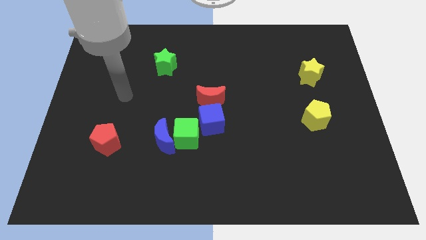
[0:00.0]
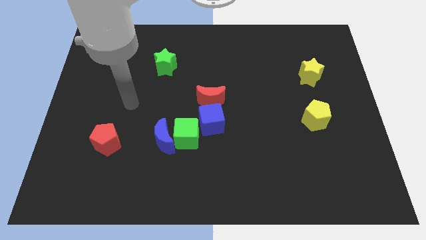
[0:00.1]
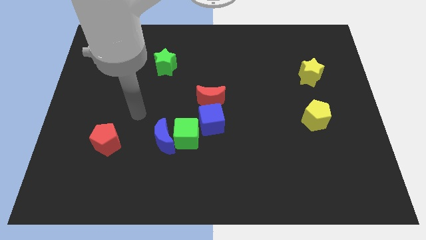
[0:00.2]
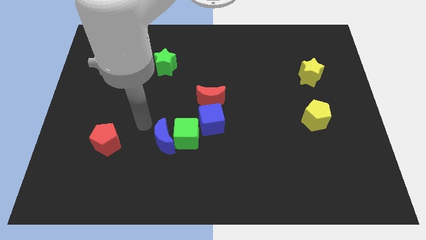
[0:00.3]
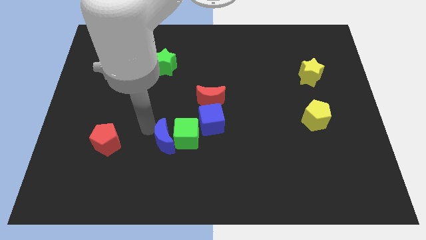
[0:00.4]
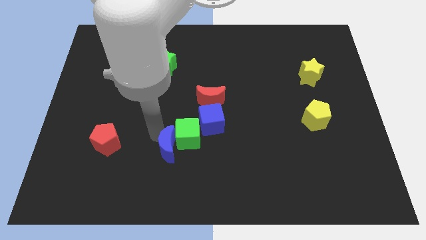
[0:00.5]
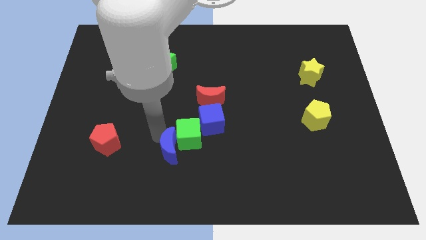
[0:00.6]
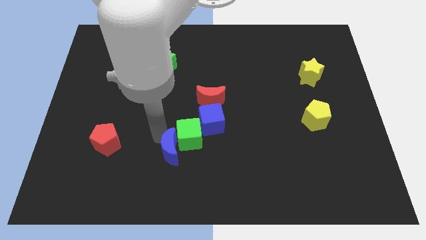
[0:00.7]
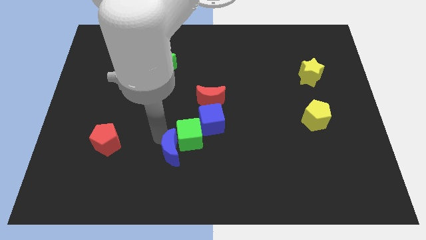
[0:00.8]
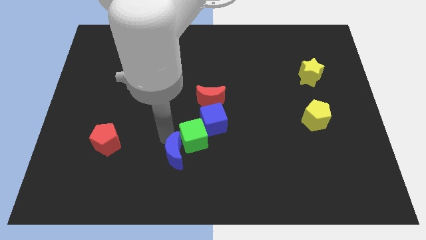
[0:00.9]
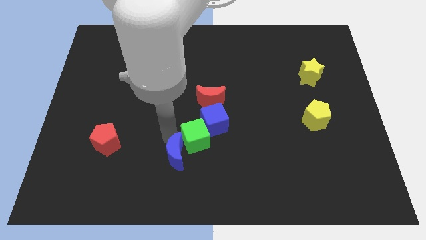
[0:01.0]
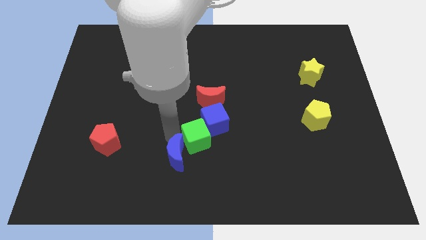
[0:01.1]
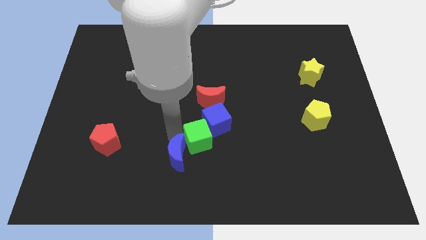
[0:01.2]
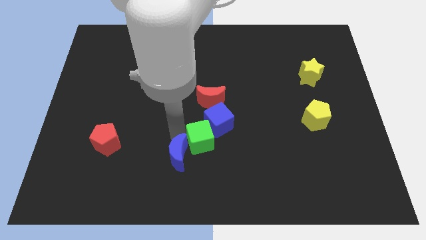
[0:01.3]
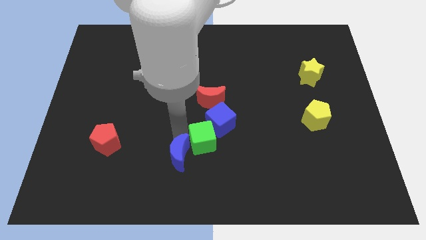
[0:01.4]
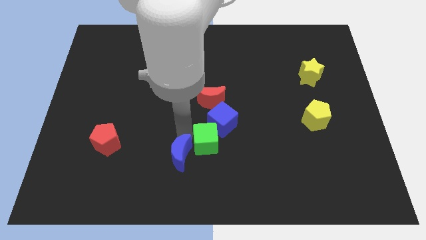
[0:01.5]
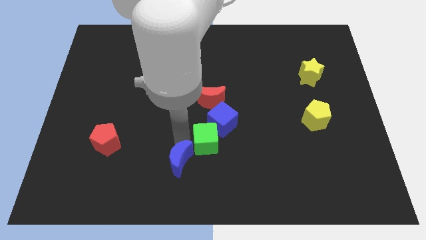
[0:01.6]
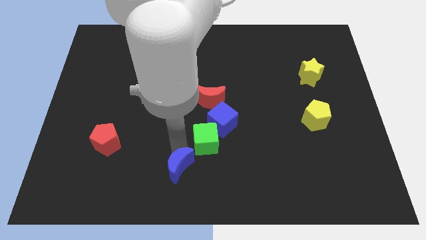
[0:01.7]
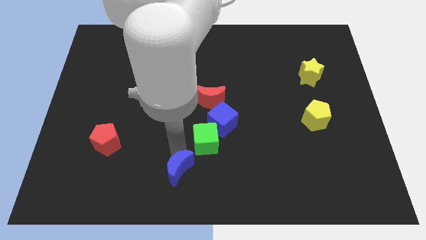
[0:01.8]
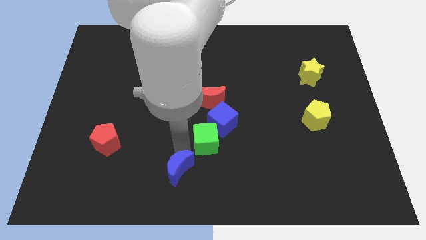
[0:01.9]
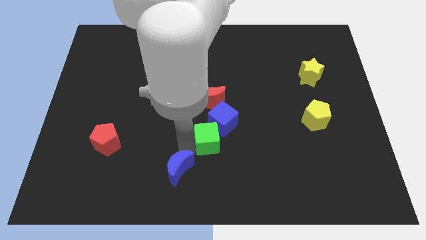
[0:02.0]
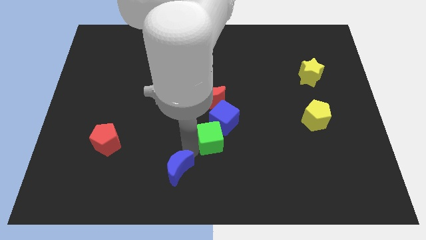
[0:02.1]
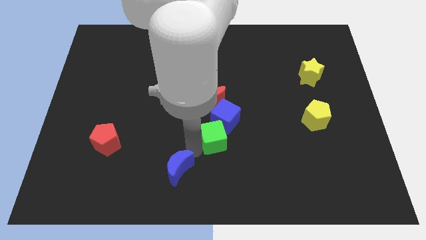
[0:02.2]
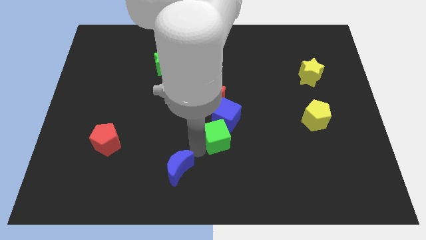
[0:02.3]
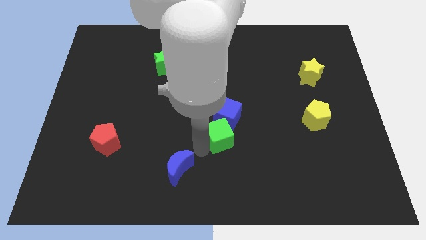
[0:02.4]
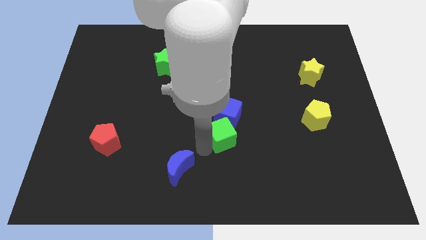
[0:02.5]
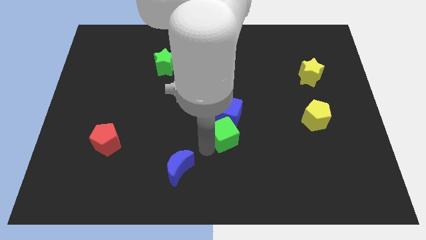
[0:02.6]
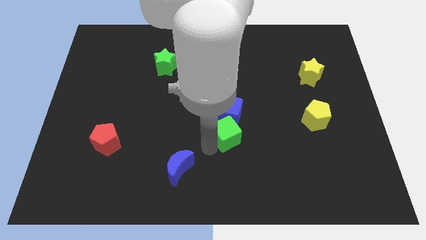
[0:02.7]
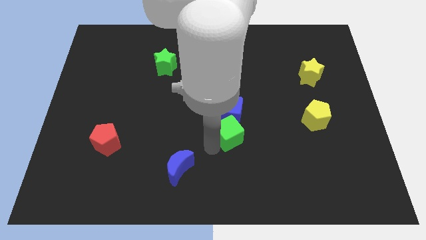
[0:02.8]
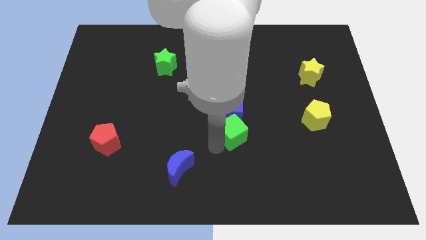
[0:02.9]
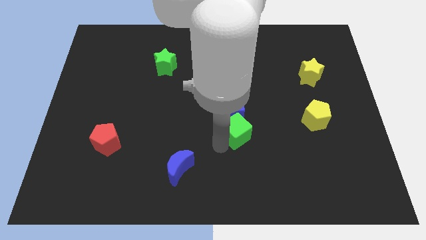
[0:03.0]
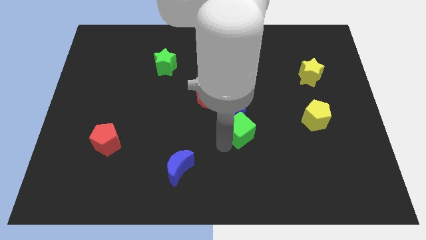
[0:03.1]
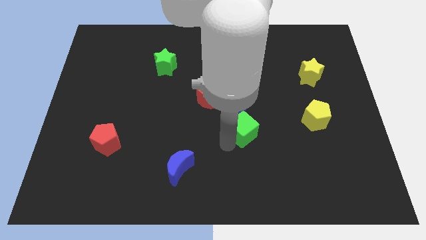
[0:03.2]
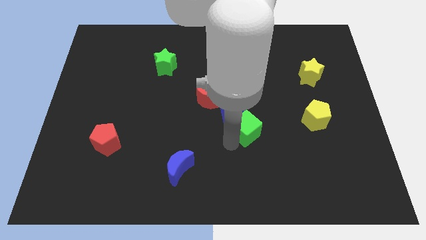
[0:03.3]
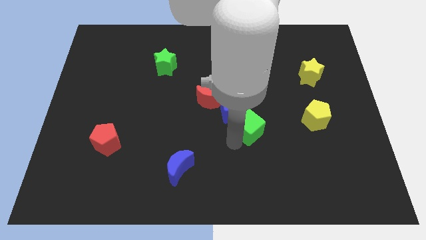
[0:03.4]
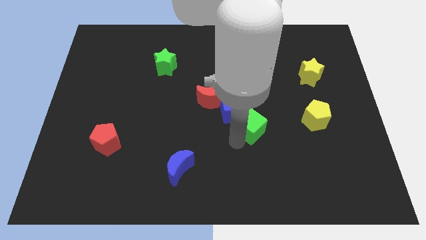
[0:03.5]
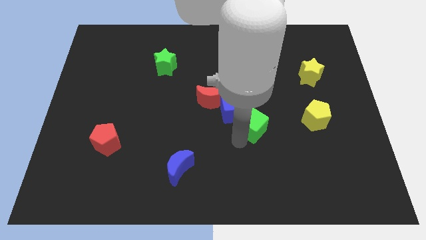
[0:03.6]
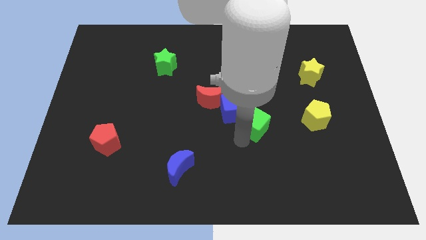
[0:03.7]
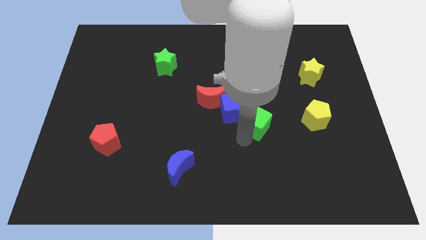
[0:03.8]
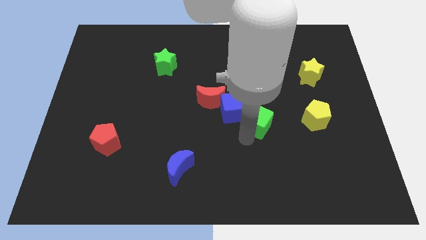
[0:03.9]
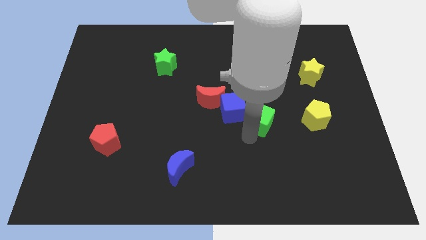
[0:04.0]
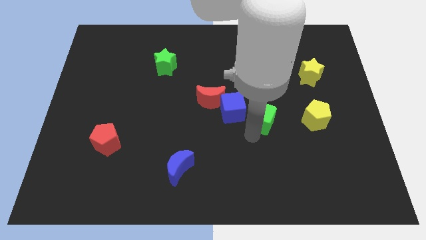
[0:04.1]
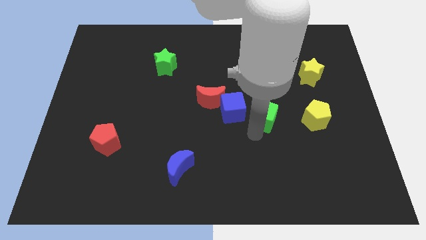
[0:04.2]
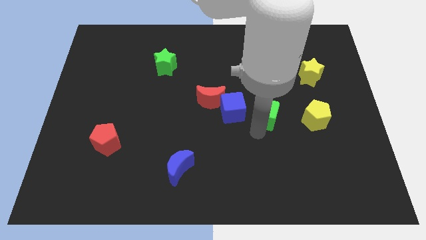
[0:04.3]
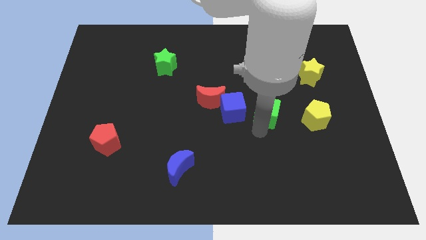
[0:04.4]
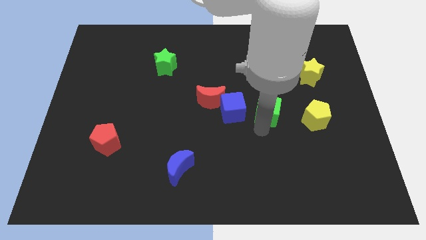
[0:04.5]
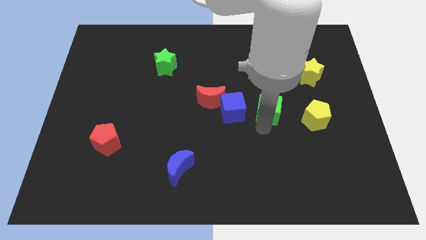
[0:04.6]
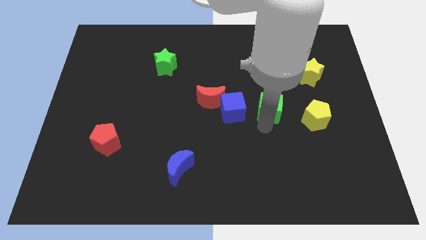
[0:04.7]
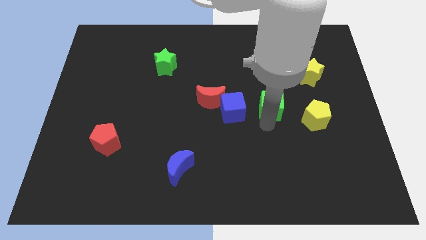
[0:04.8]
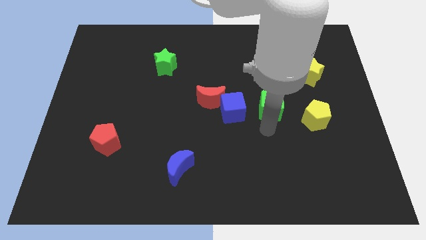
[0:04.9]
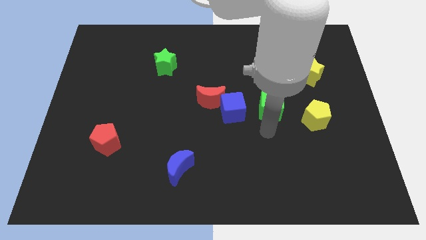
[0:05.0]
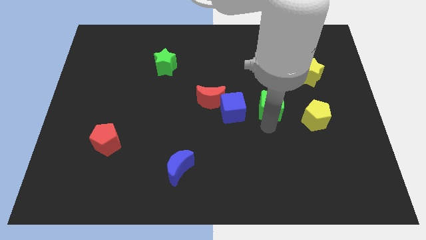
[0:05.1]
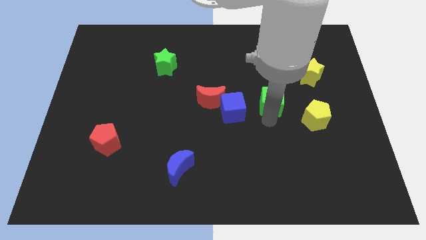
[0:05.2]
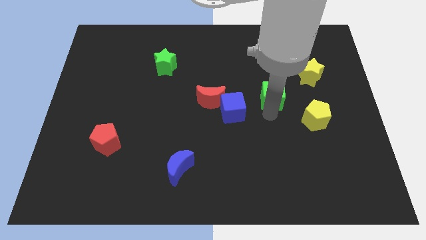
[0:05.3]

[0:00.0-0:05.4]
move the green cube up and to the right

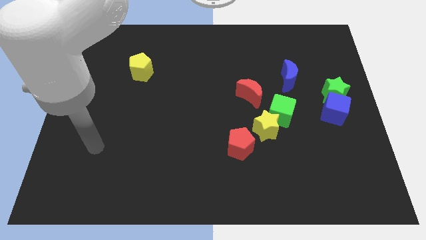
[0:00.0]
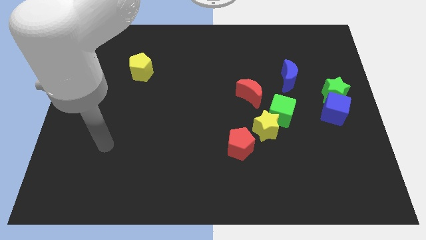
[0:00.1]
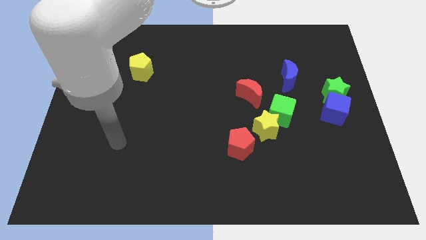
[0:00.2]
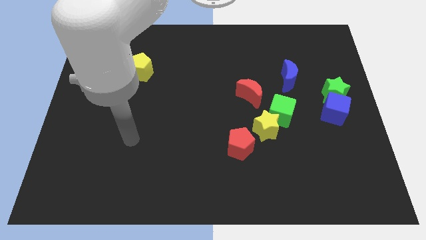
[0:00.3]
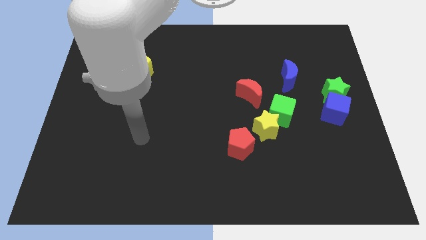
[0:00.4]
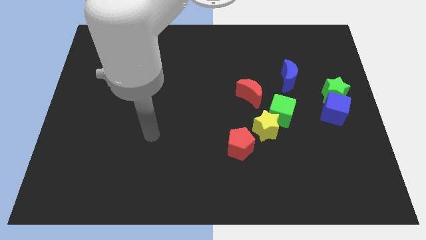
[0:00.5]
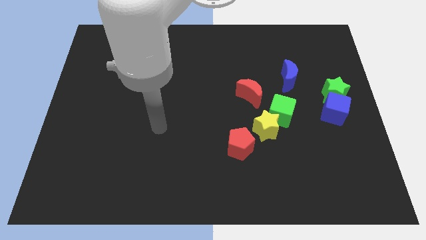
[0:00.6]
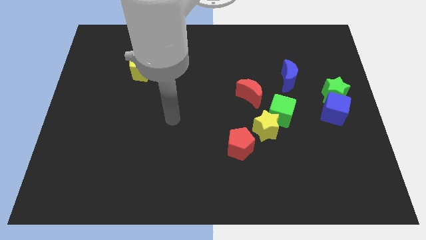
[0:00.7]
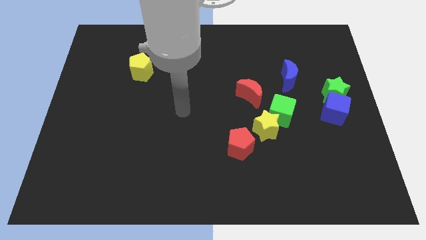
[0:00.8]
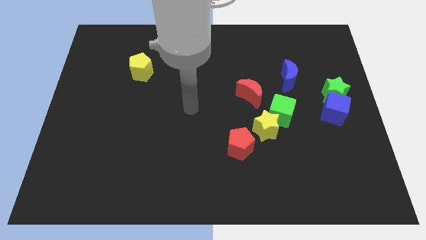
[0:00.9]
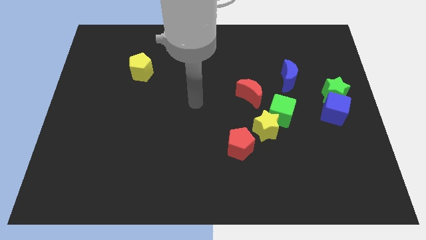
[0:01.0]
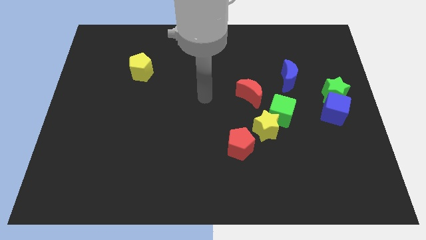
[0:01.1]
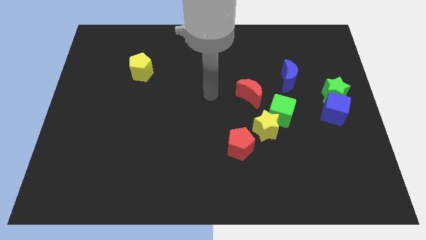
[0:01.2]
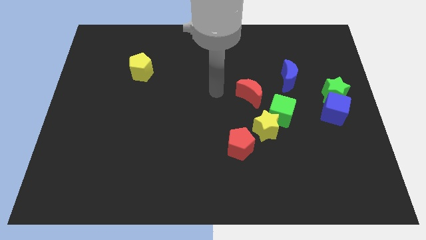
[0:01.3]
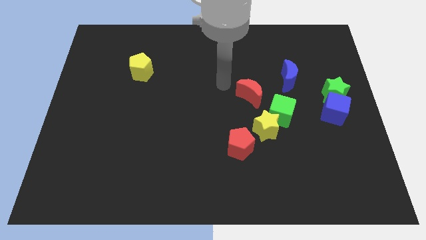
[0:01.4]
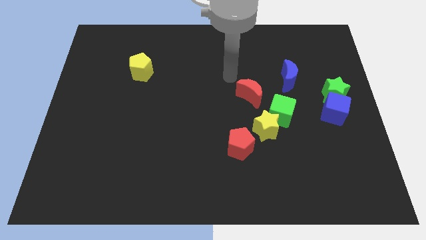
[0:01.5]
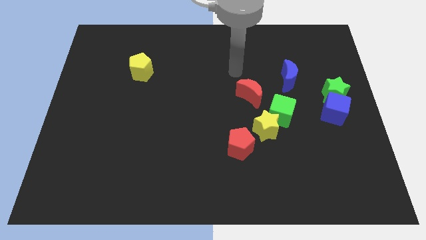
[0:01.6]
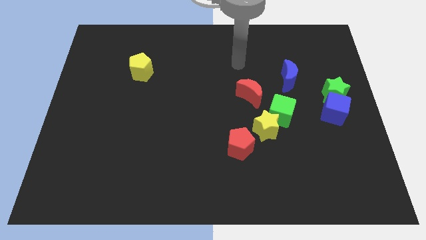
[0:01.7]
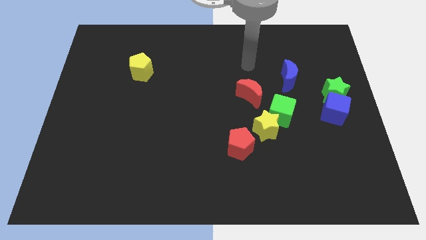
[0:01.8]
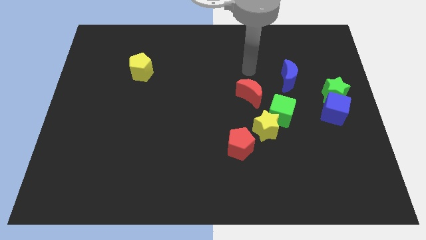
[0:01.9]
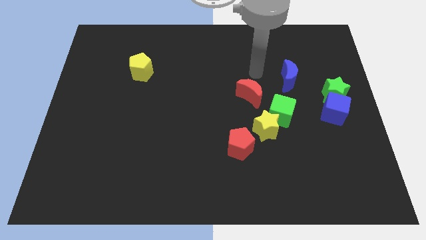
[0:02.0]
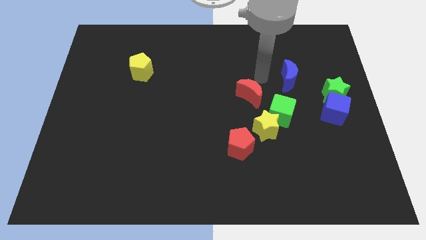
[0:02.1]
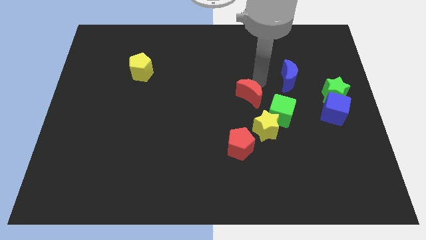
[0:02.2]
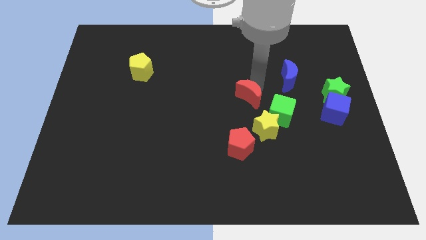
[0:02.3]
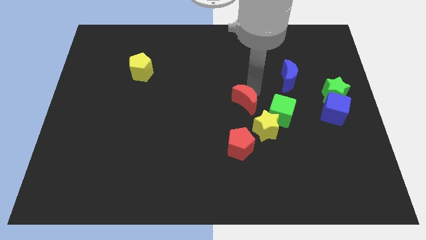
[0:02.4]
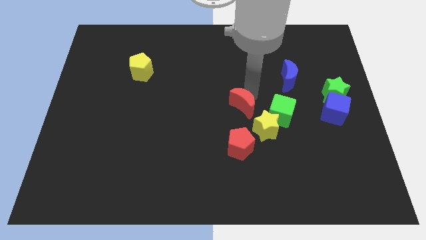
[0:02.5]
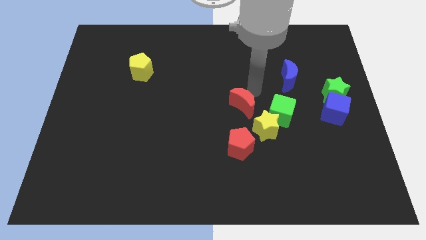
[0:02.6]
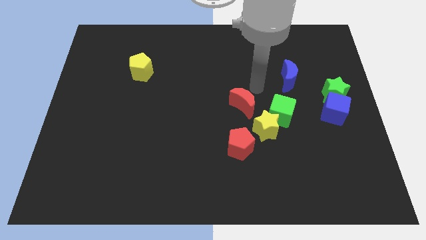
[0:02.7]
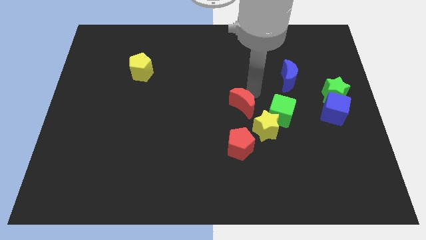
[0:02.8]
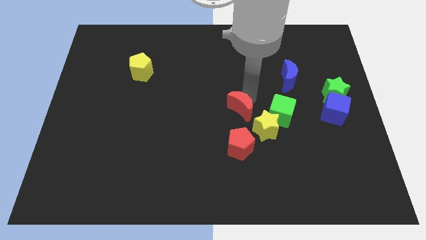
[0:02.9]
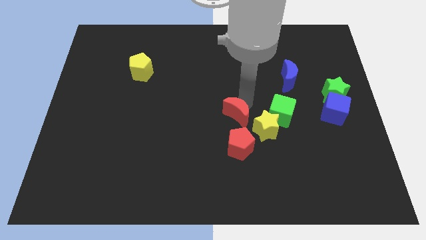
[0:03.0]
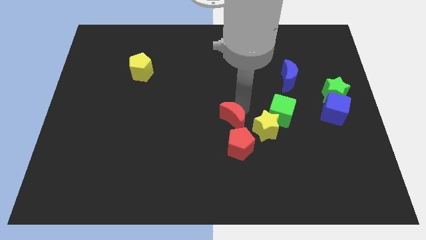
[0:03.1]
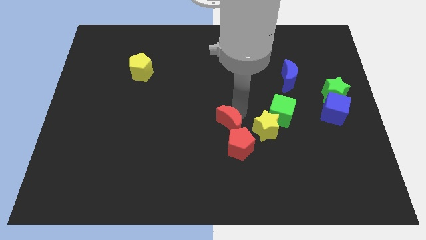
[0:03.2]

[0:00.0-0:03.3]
move the red moon down a bit
